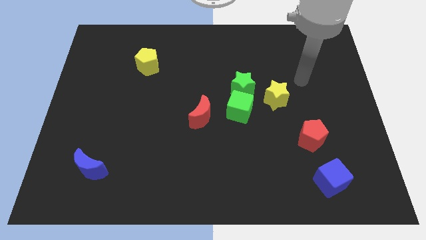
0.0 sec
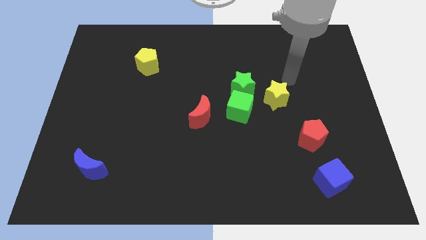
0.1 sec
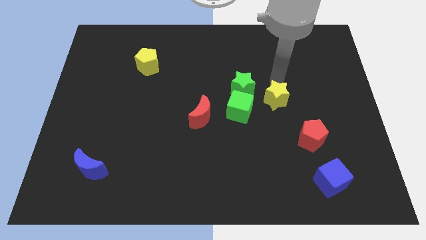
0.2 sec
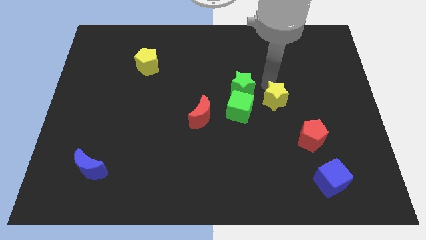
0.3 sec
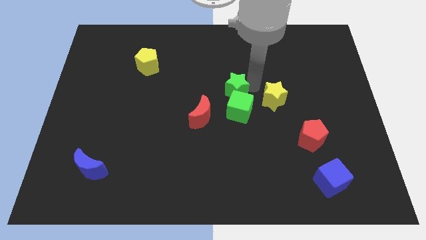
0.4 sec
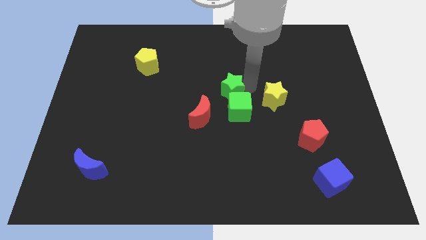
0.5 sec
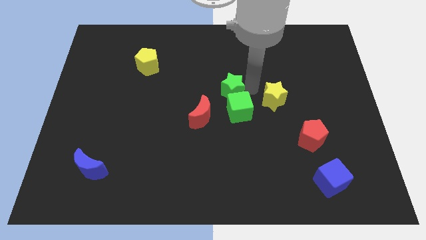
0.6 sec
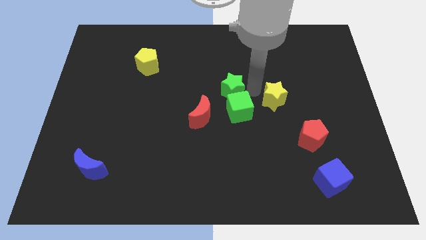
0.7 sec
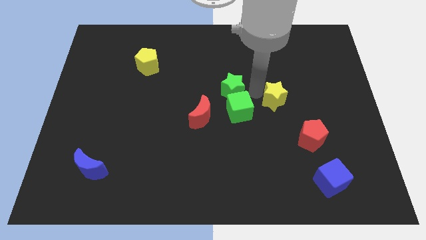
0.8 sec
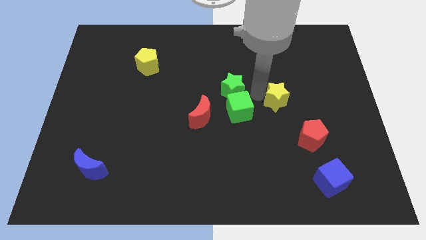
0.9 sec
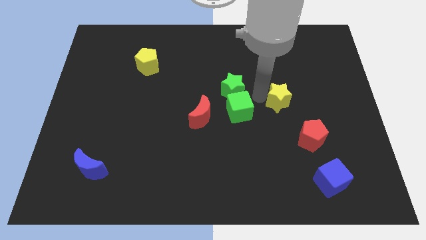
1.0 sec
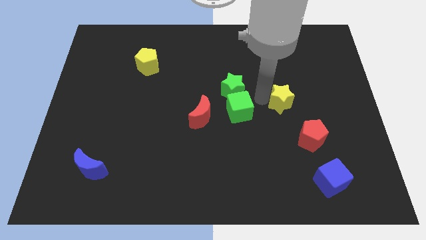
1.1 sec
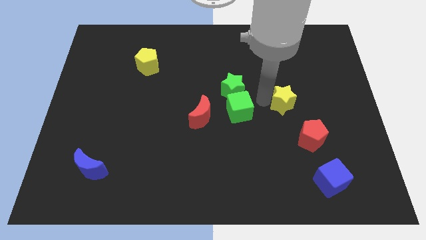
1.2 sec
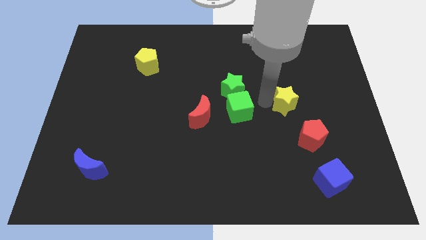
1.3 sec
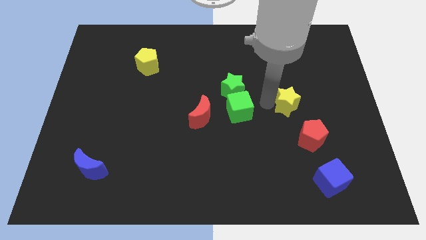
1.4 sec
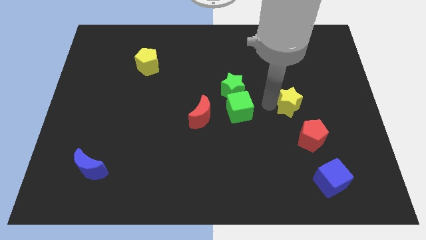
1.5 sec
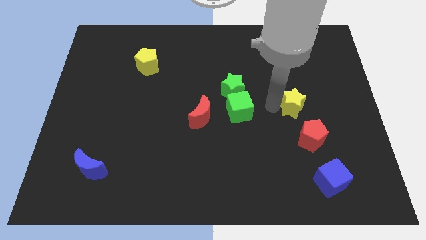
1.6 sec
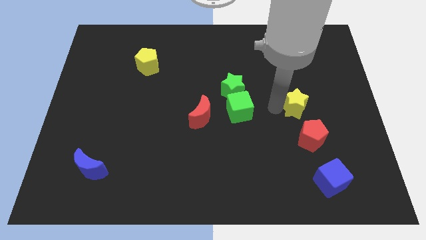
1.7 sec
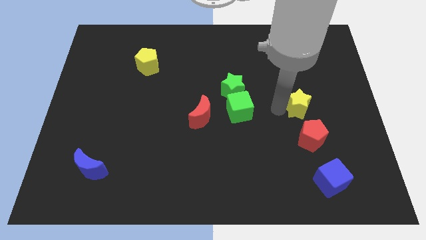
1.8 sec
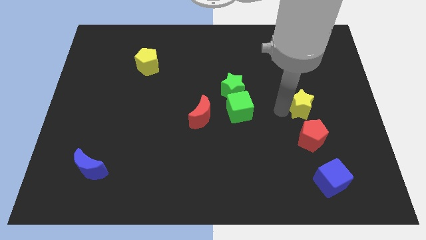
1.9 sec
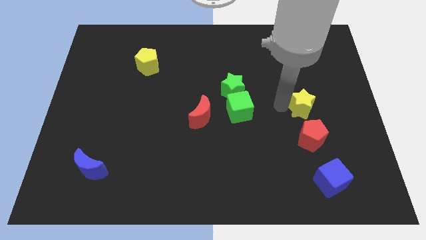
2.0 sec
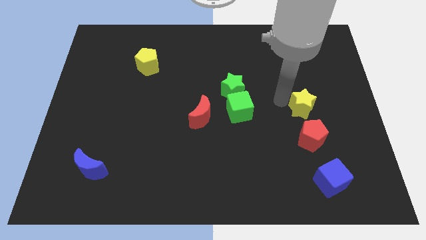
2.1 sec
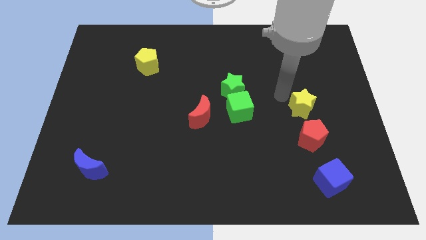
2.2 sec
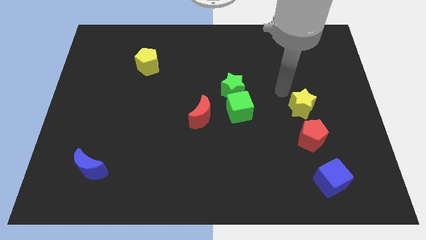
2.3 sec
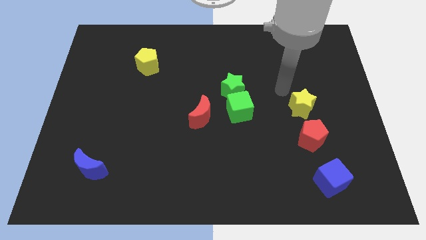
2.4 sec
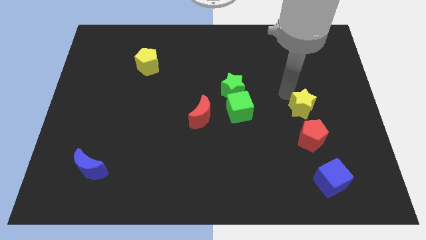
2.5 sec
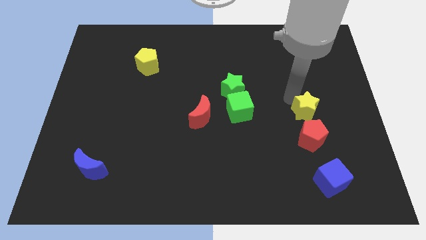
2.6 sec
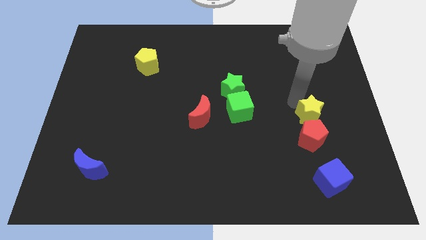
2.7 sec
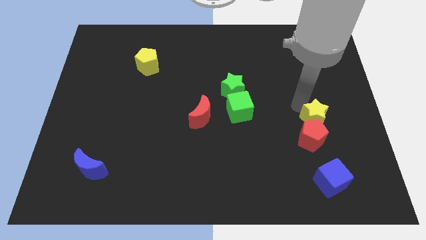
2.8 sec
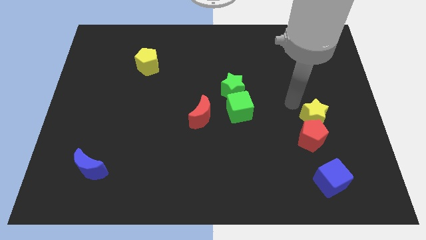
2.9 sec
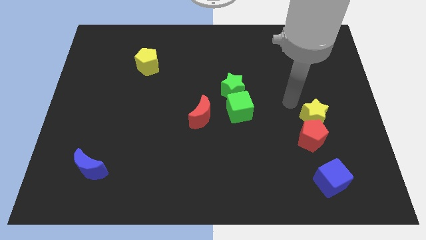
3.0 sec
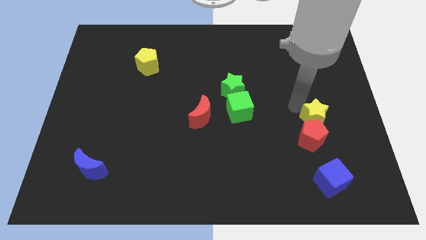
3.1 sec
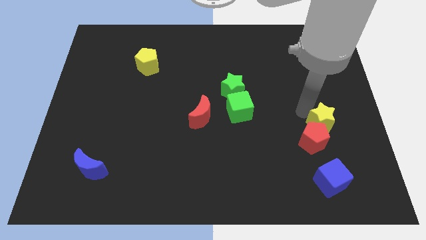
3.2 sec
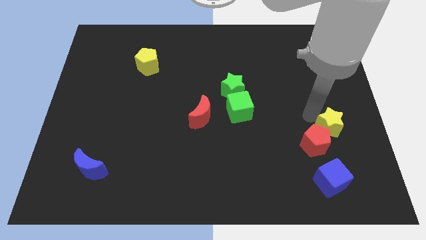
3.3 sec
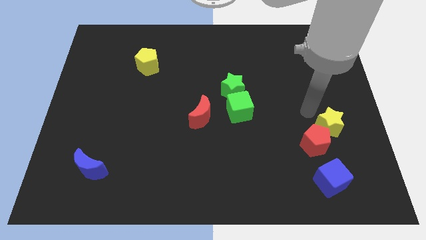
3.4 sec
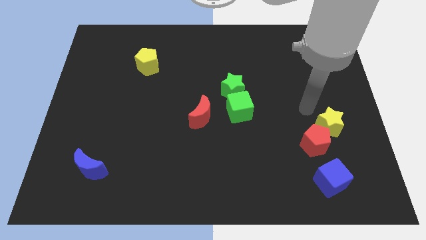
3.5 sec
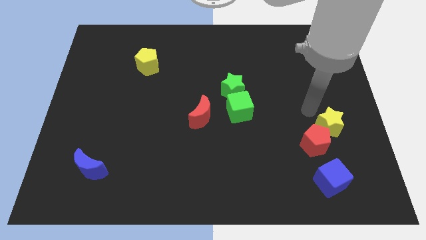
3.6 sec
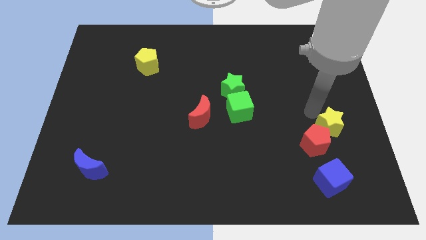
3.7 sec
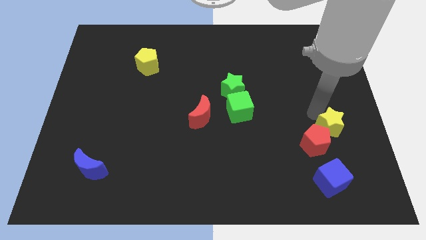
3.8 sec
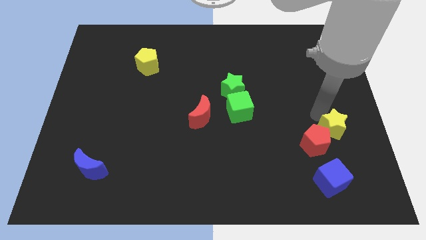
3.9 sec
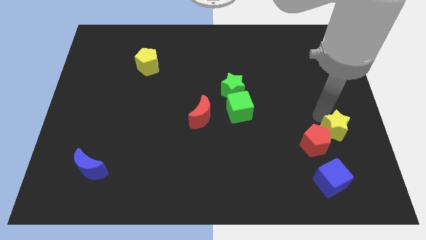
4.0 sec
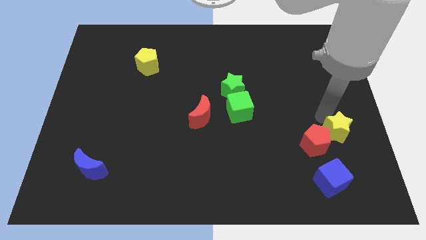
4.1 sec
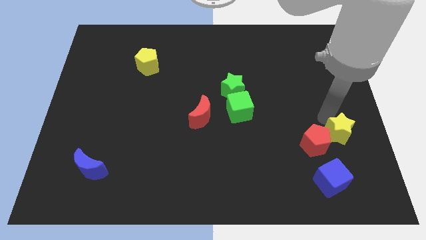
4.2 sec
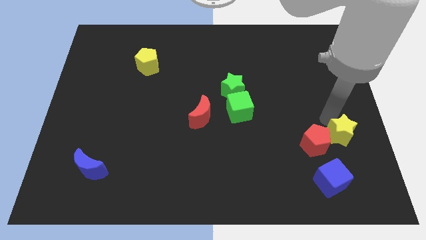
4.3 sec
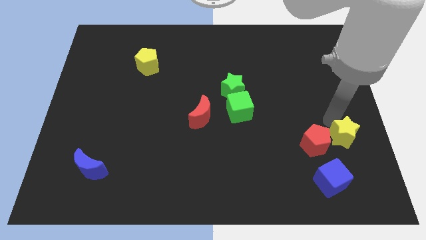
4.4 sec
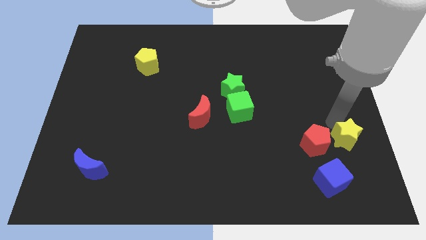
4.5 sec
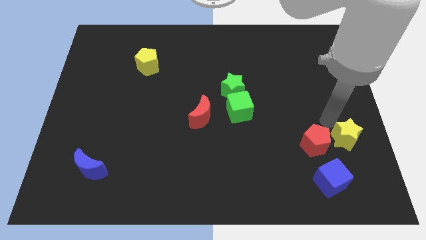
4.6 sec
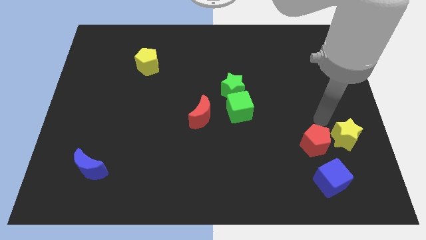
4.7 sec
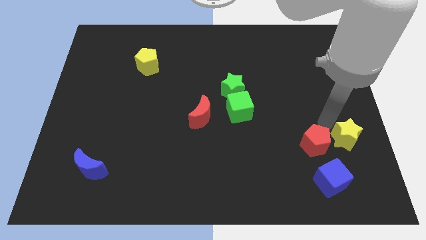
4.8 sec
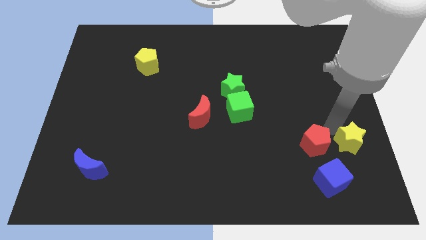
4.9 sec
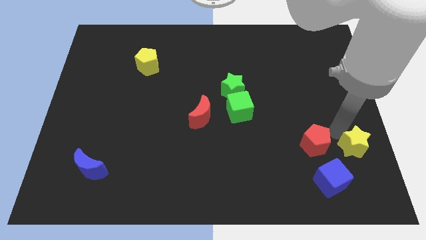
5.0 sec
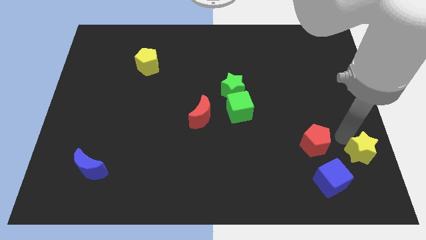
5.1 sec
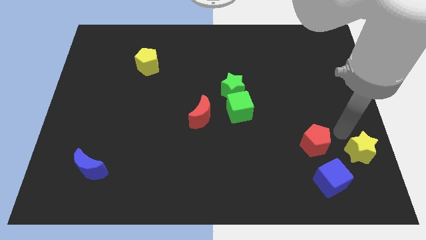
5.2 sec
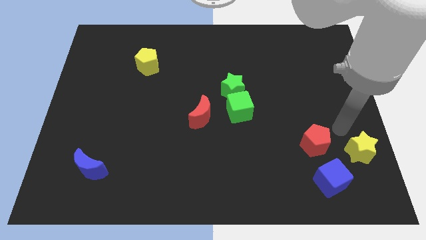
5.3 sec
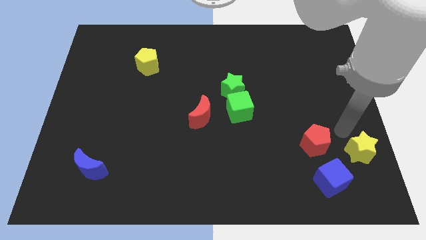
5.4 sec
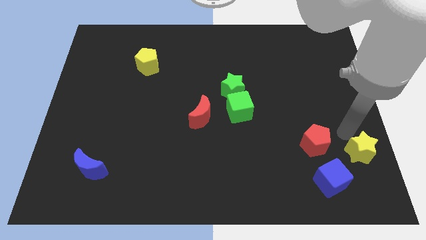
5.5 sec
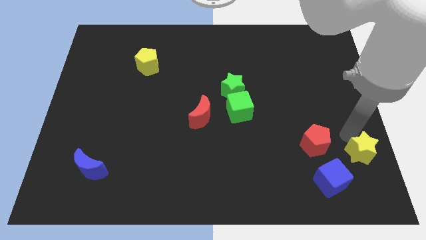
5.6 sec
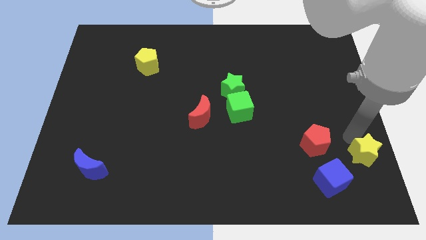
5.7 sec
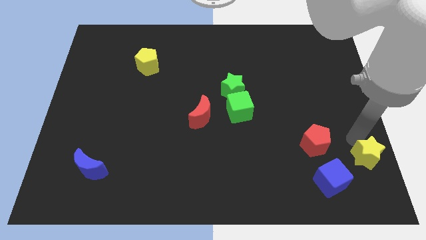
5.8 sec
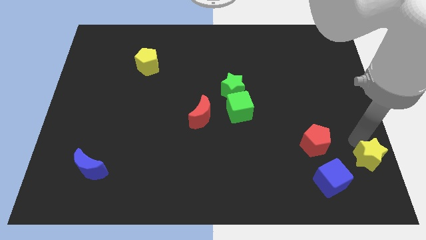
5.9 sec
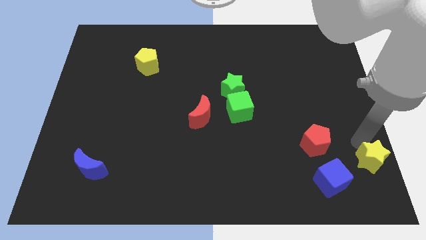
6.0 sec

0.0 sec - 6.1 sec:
move the yellow star to the bottom right corner

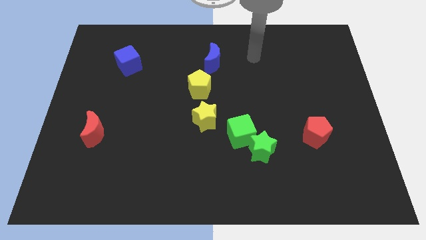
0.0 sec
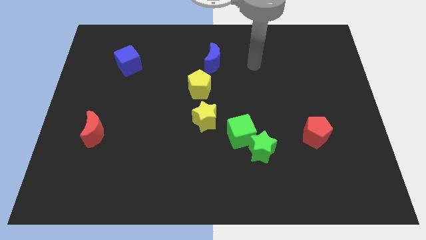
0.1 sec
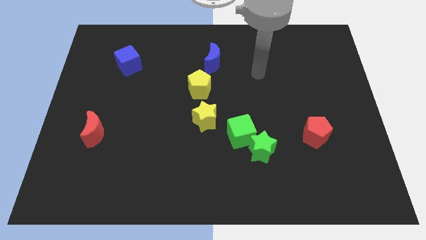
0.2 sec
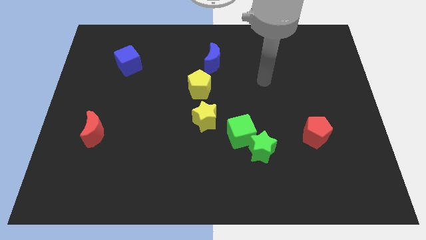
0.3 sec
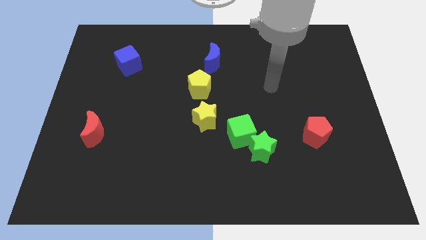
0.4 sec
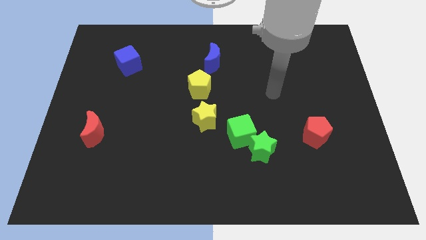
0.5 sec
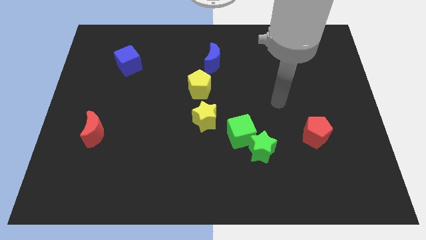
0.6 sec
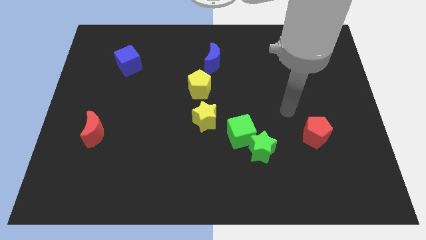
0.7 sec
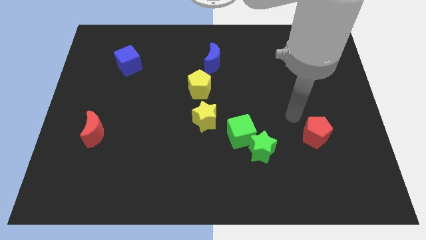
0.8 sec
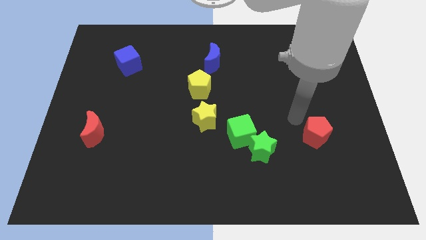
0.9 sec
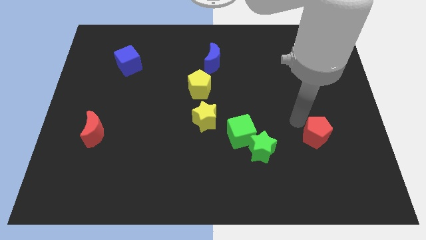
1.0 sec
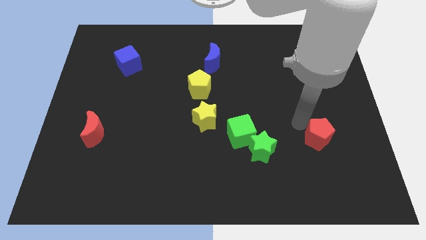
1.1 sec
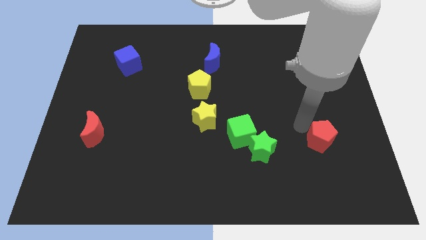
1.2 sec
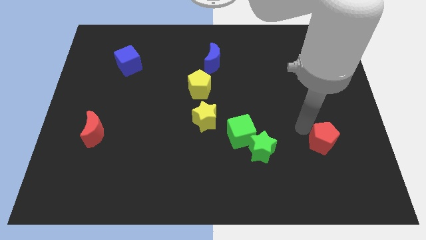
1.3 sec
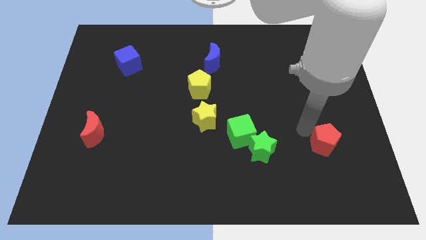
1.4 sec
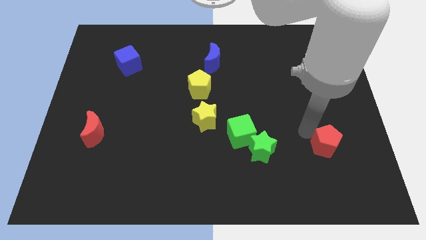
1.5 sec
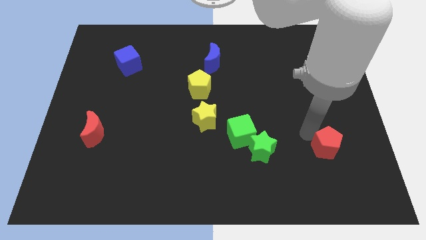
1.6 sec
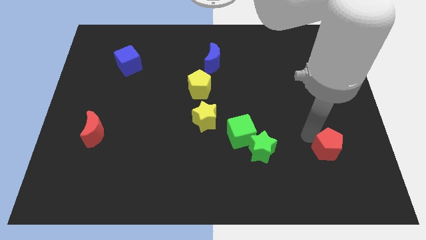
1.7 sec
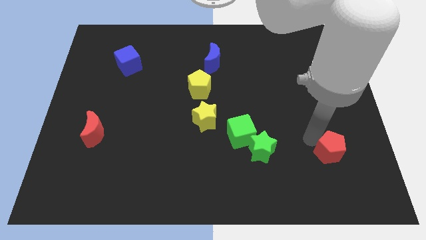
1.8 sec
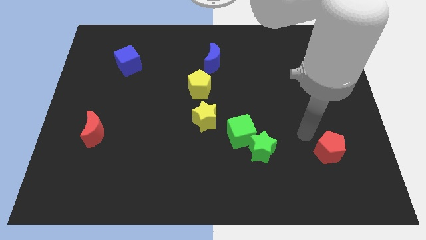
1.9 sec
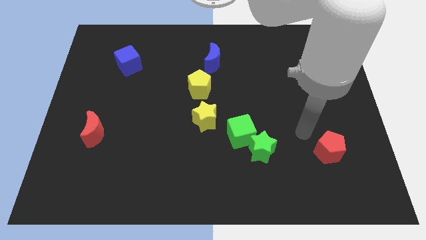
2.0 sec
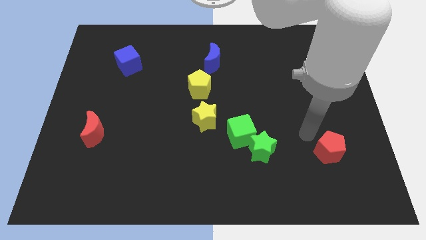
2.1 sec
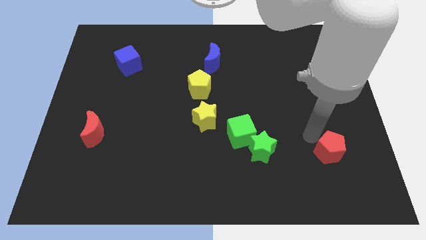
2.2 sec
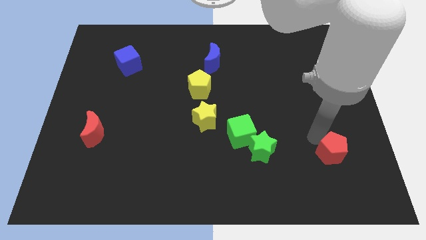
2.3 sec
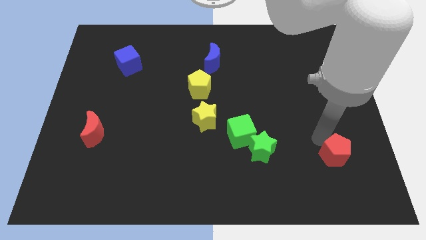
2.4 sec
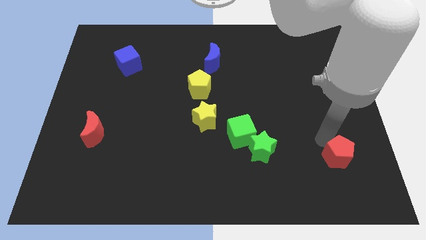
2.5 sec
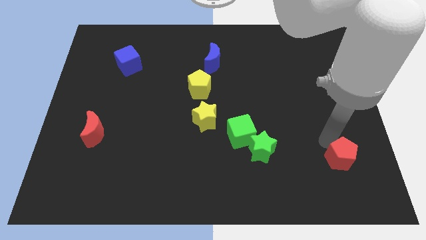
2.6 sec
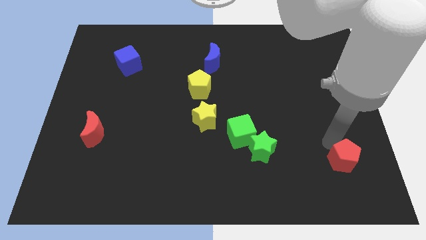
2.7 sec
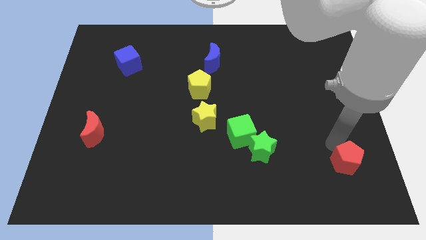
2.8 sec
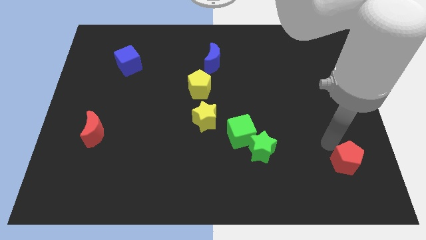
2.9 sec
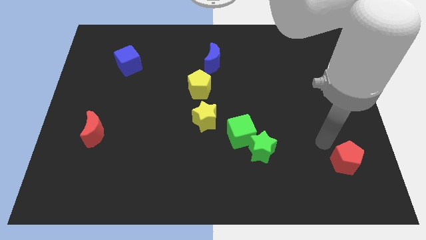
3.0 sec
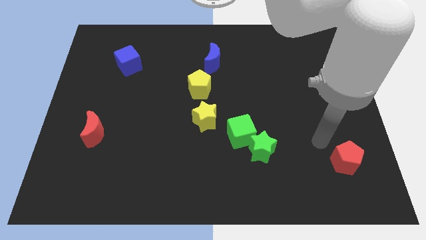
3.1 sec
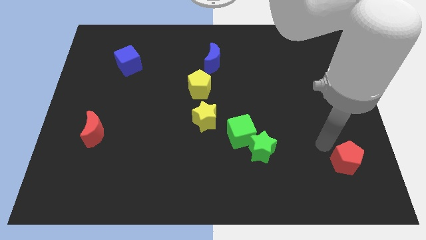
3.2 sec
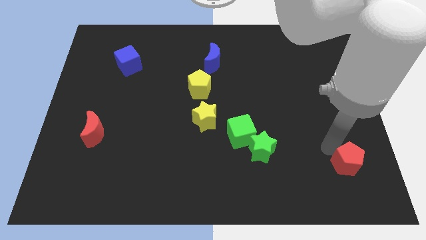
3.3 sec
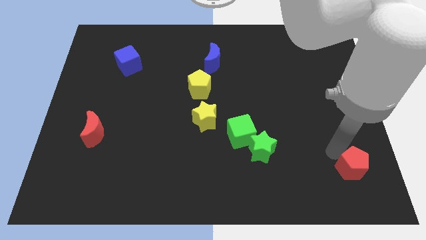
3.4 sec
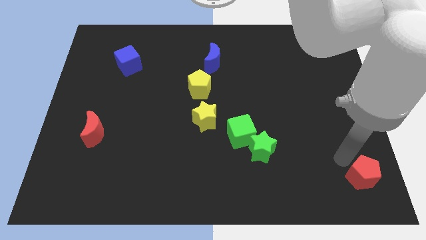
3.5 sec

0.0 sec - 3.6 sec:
move the red pentagon to the bottom right of the board
